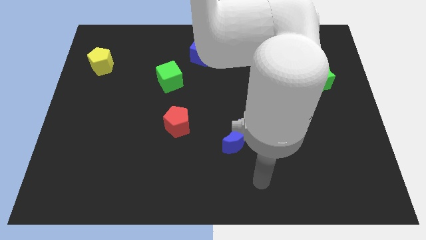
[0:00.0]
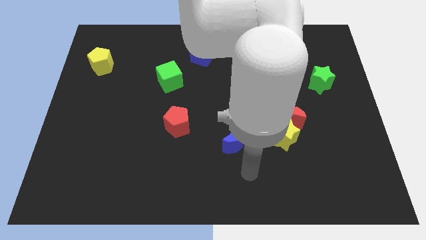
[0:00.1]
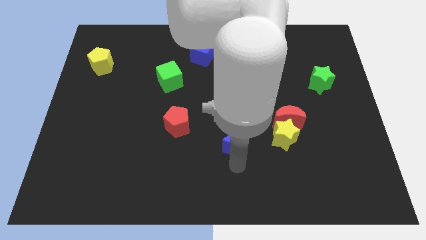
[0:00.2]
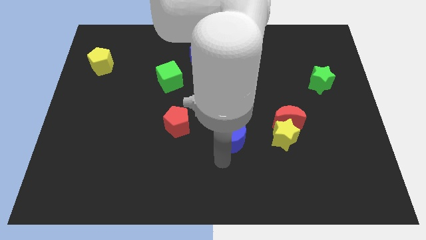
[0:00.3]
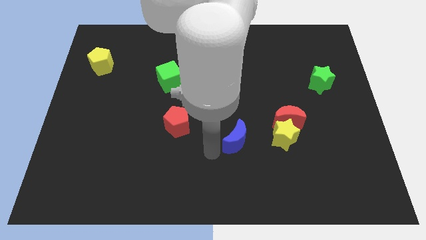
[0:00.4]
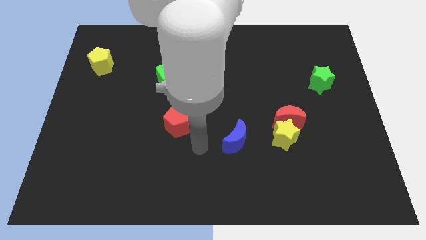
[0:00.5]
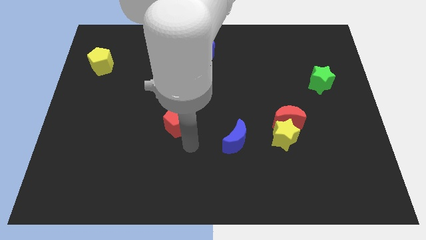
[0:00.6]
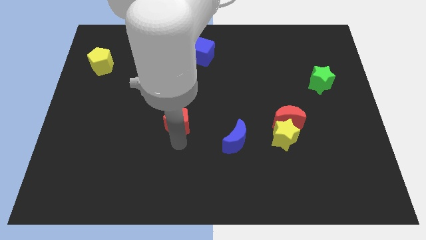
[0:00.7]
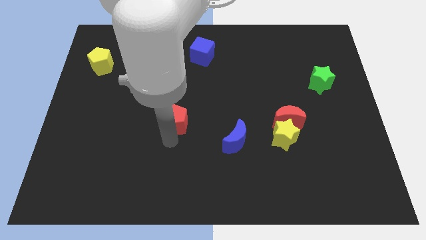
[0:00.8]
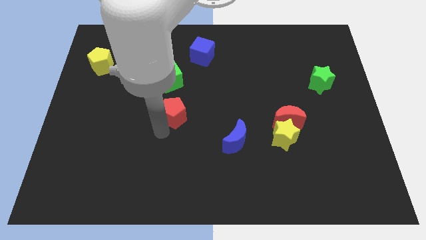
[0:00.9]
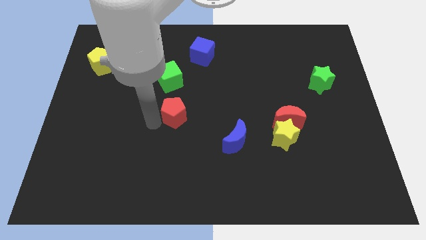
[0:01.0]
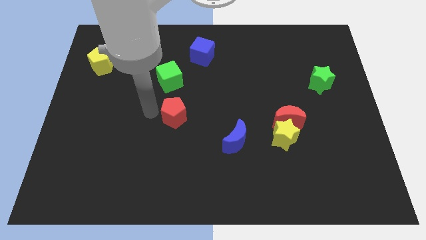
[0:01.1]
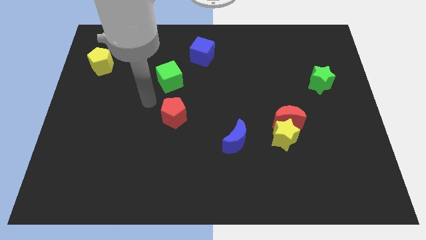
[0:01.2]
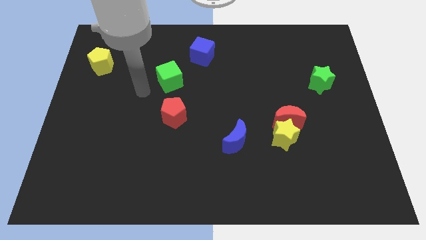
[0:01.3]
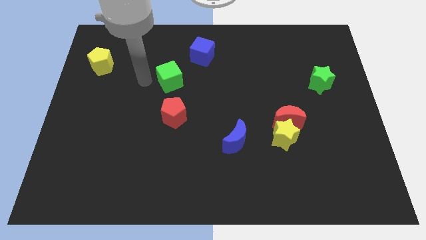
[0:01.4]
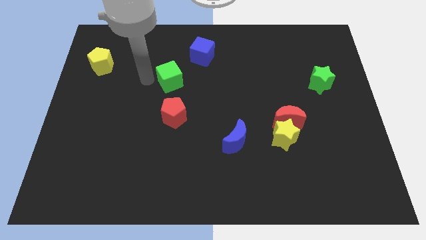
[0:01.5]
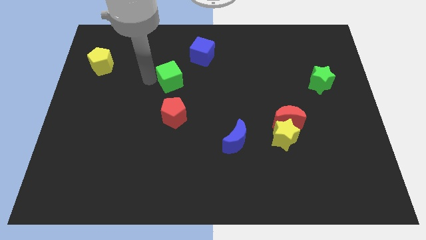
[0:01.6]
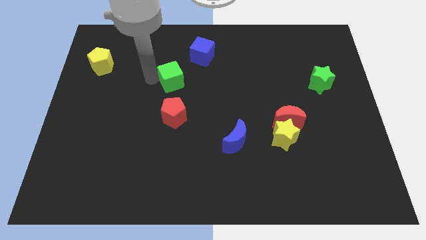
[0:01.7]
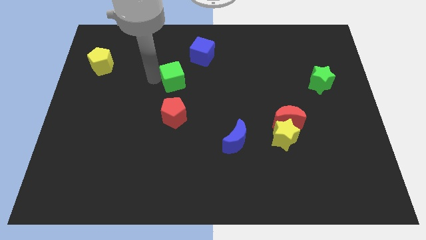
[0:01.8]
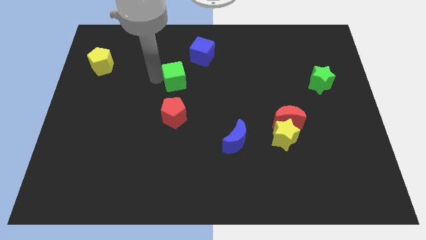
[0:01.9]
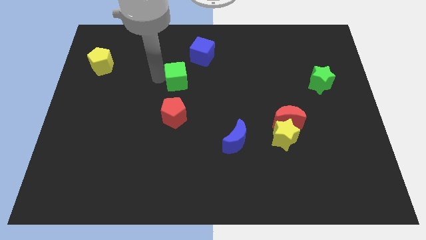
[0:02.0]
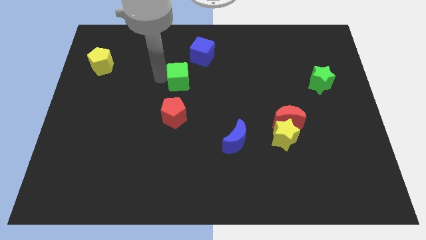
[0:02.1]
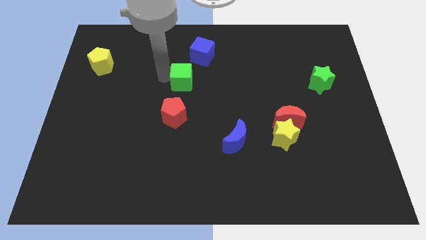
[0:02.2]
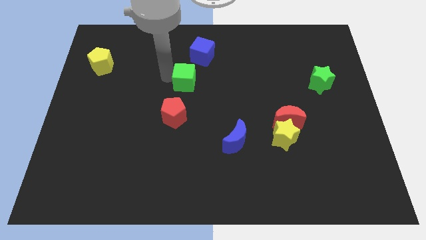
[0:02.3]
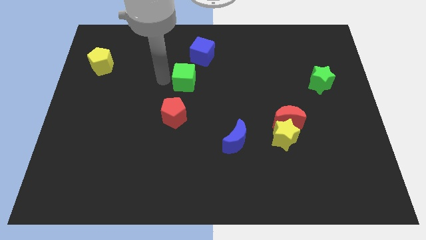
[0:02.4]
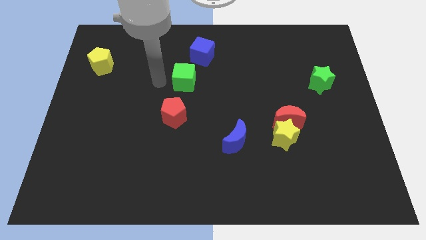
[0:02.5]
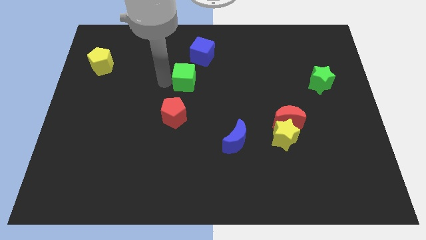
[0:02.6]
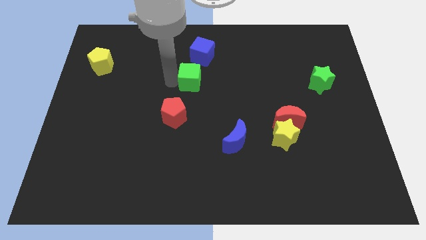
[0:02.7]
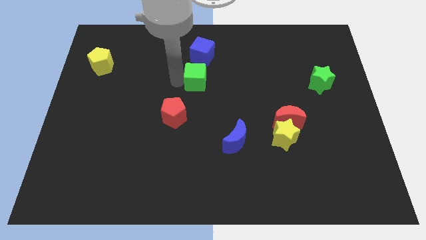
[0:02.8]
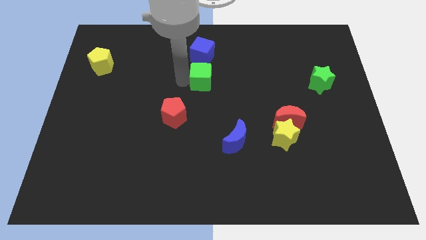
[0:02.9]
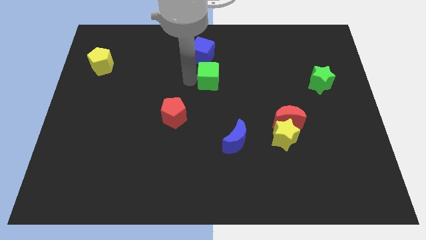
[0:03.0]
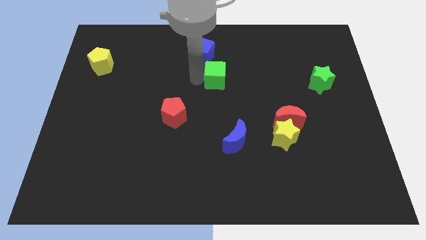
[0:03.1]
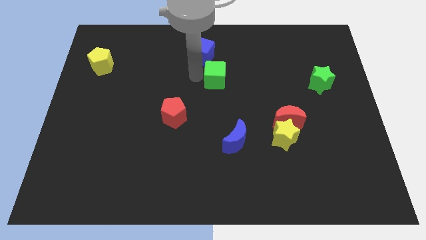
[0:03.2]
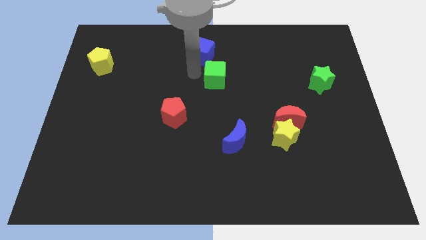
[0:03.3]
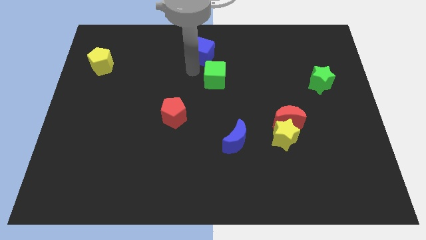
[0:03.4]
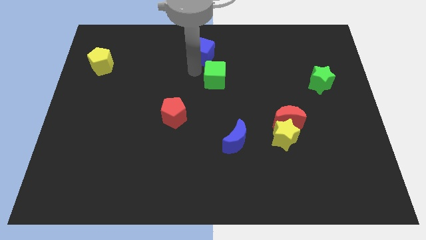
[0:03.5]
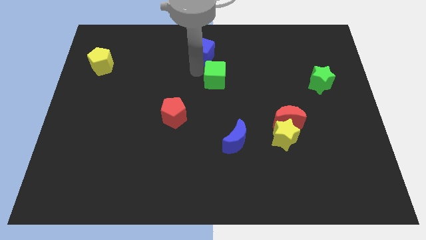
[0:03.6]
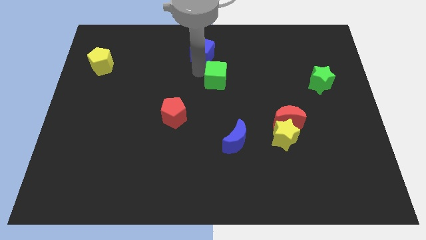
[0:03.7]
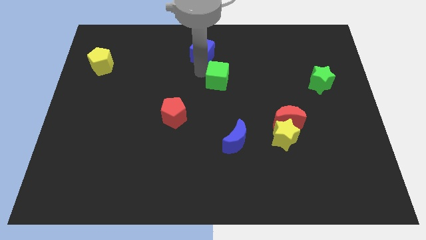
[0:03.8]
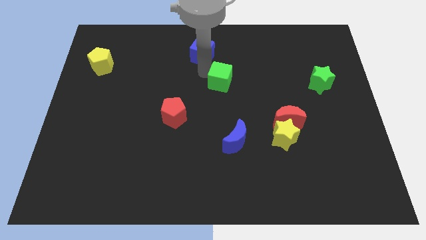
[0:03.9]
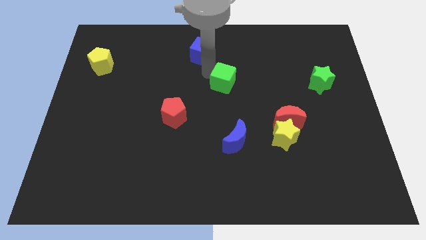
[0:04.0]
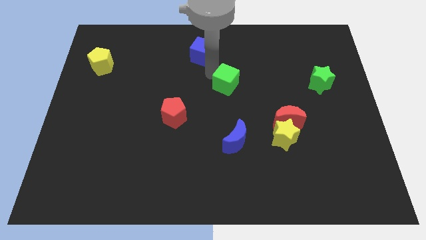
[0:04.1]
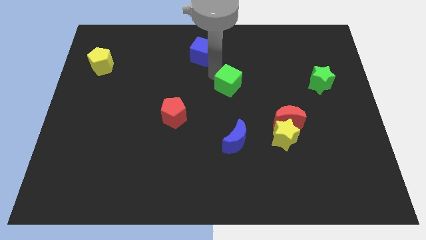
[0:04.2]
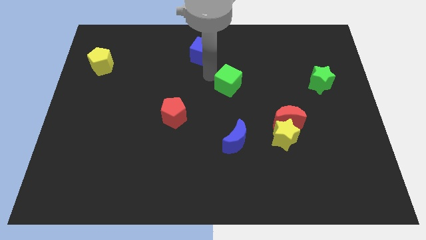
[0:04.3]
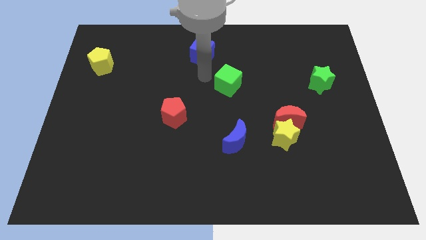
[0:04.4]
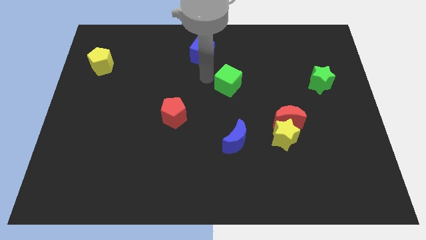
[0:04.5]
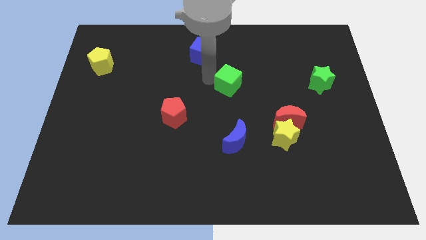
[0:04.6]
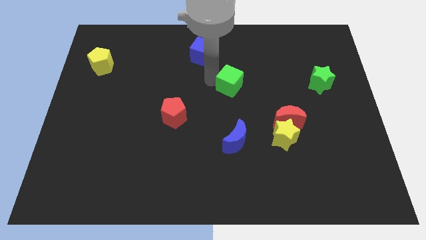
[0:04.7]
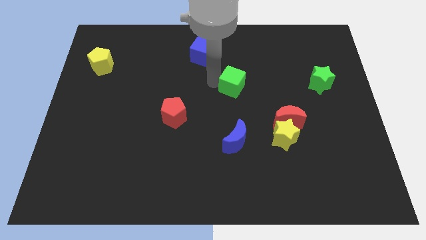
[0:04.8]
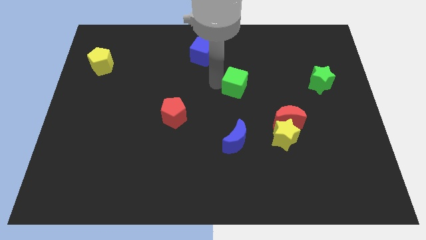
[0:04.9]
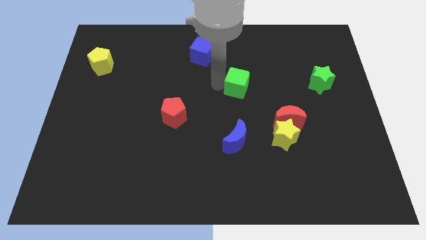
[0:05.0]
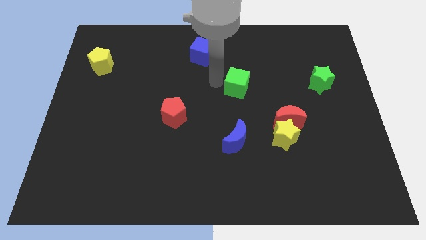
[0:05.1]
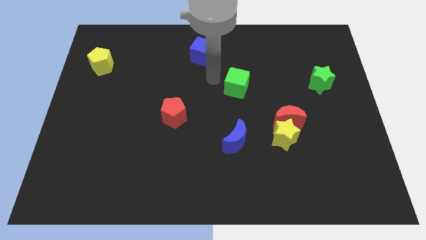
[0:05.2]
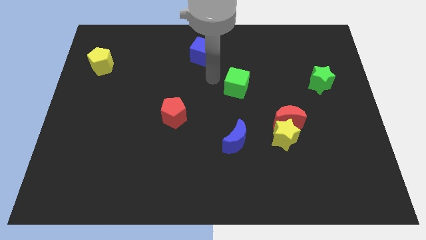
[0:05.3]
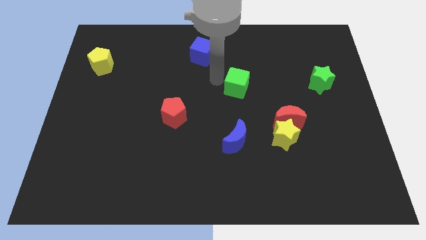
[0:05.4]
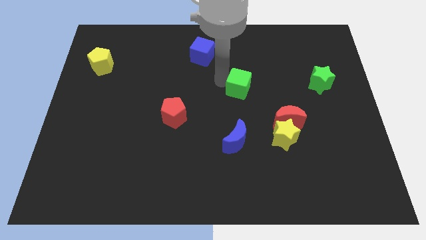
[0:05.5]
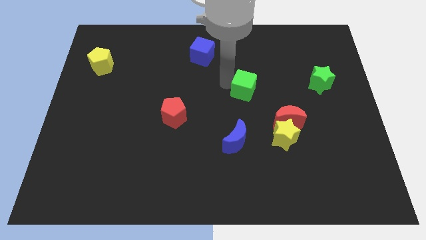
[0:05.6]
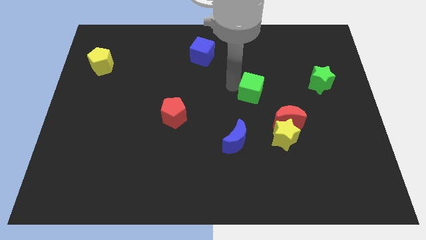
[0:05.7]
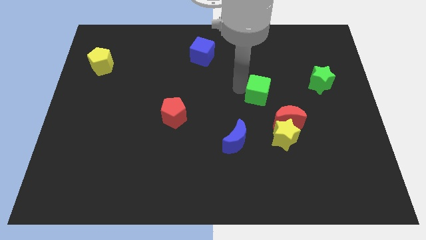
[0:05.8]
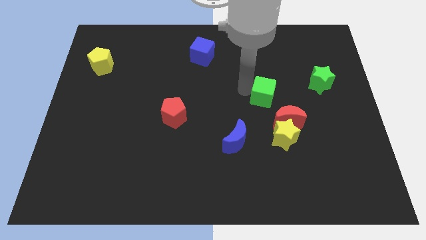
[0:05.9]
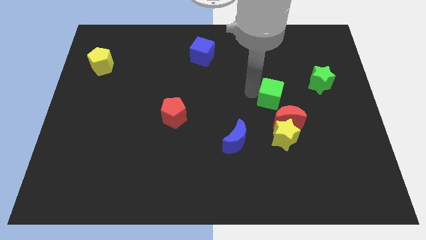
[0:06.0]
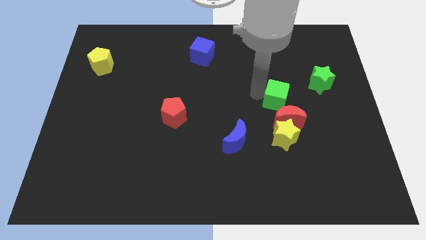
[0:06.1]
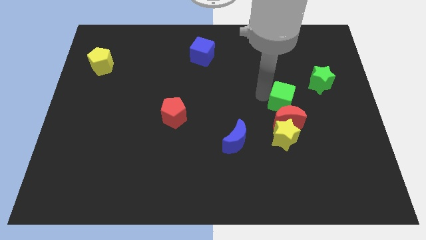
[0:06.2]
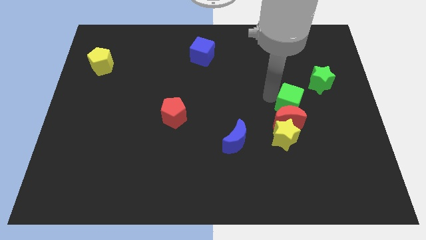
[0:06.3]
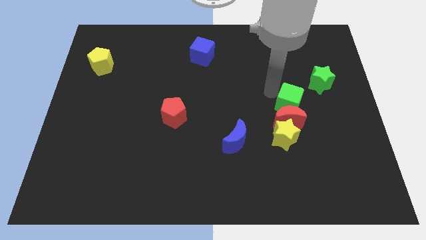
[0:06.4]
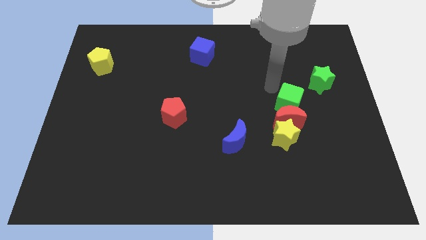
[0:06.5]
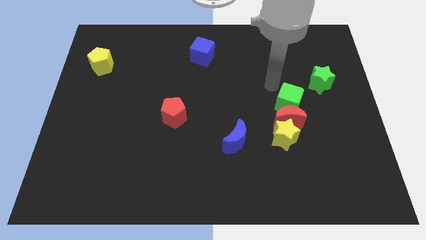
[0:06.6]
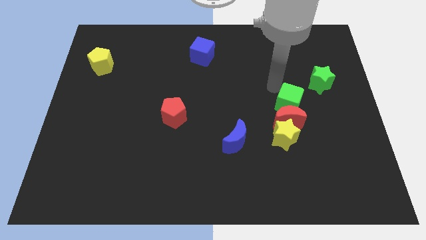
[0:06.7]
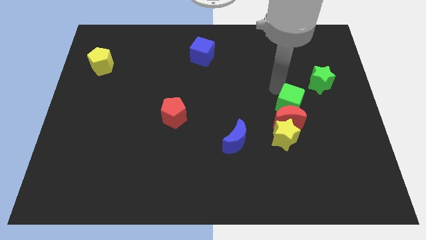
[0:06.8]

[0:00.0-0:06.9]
move the green cube diagonally up and to the right of the yellow star

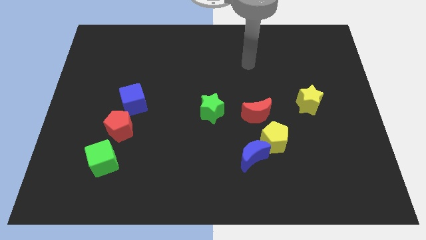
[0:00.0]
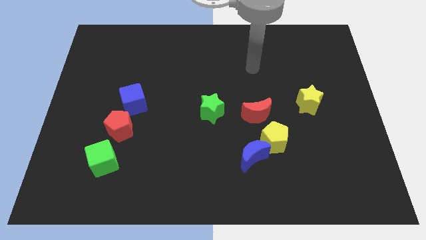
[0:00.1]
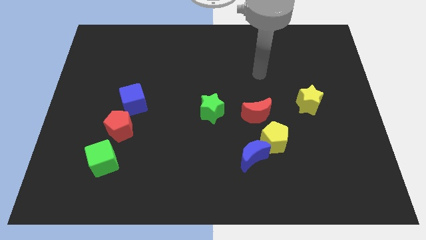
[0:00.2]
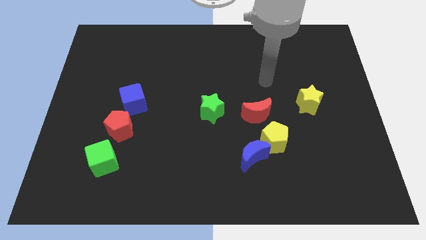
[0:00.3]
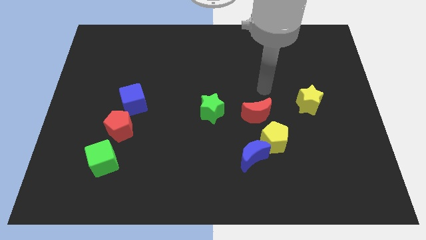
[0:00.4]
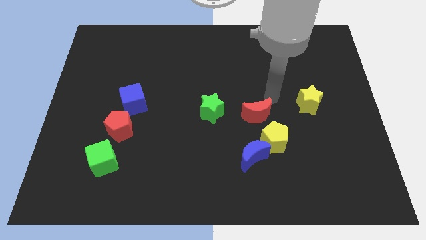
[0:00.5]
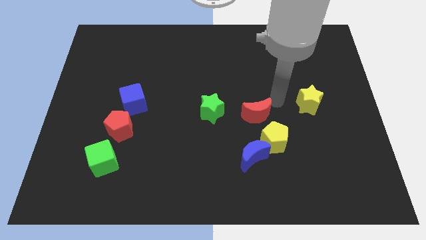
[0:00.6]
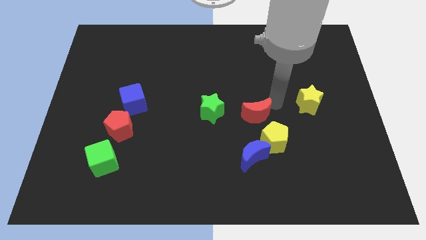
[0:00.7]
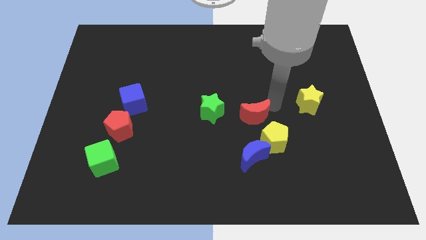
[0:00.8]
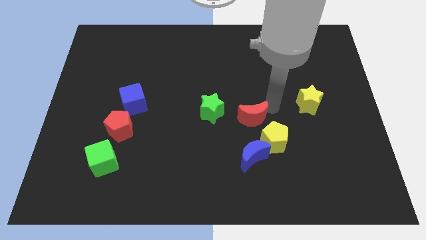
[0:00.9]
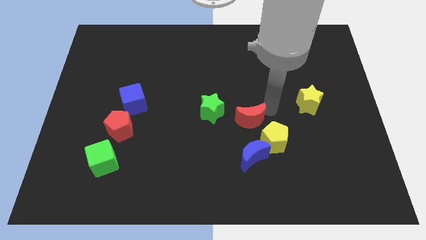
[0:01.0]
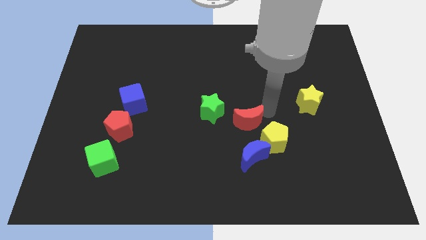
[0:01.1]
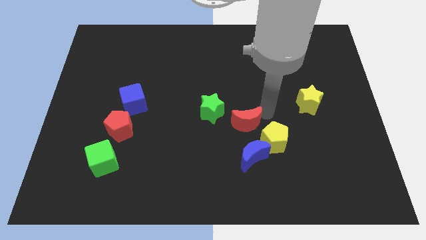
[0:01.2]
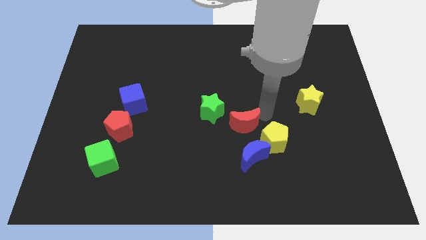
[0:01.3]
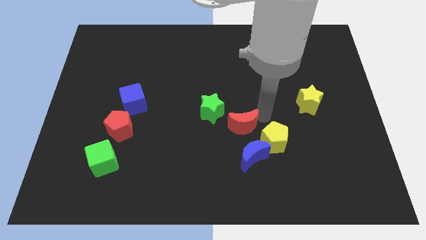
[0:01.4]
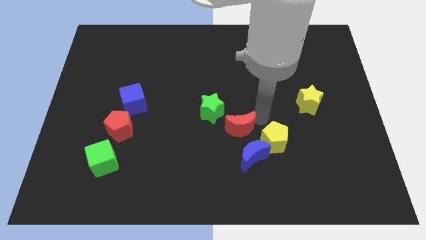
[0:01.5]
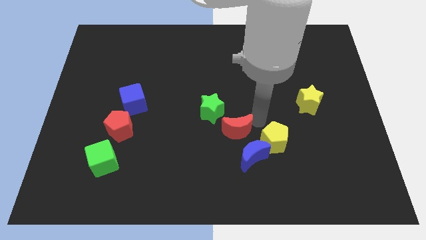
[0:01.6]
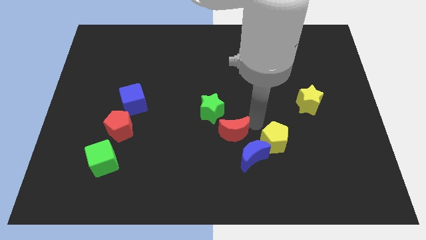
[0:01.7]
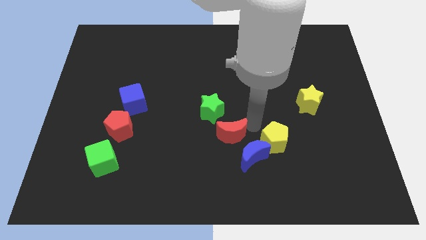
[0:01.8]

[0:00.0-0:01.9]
slide the red moon below the green star
